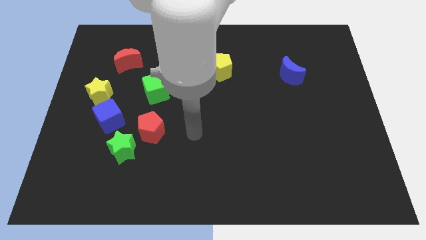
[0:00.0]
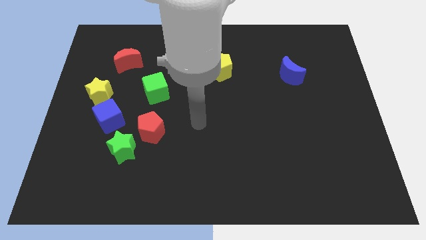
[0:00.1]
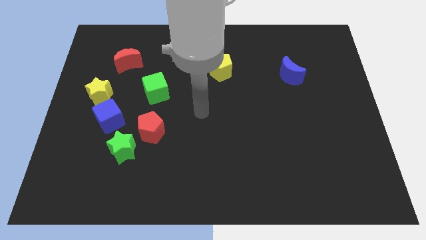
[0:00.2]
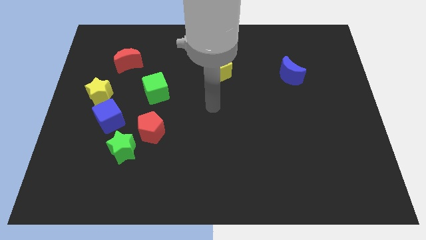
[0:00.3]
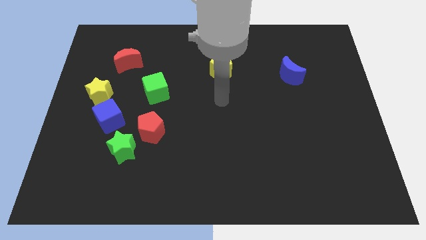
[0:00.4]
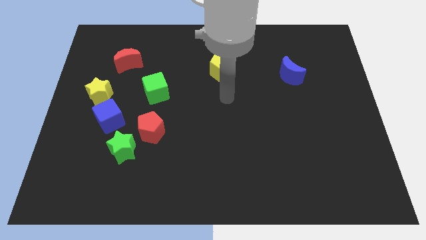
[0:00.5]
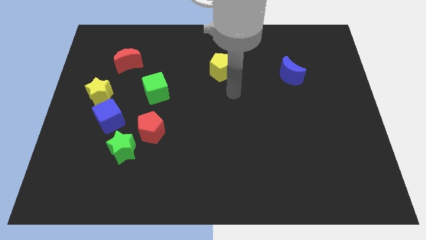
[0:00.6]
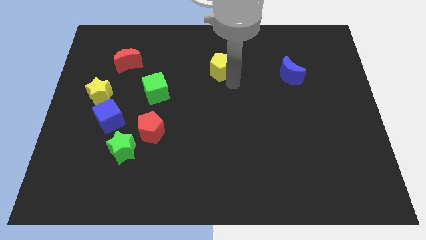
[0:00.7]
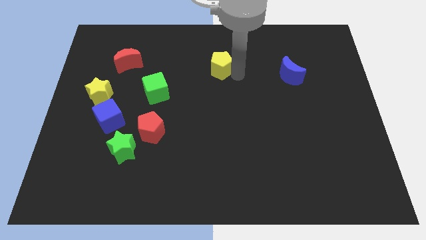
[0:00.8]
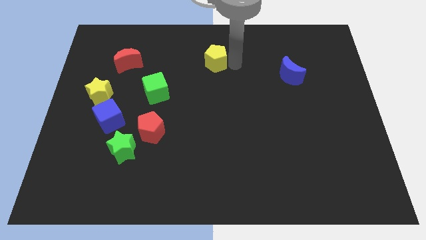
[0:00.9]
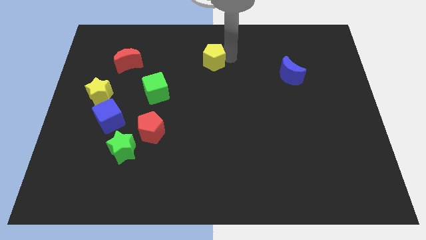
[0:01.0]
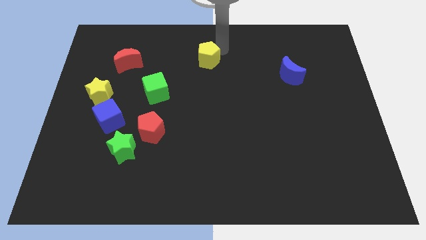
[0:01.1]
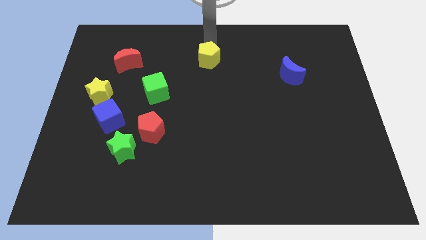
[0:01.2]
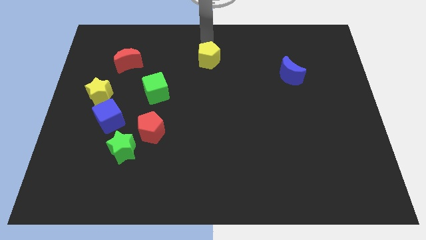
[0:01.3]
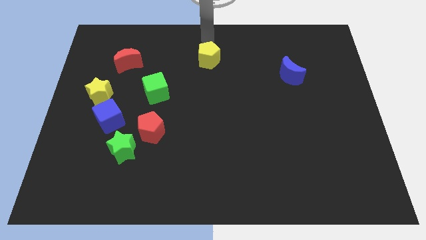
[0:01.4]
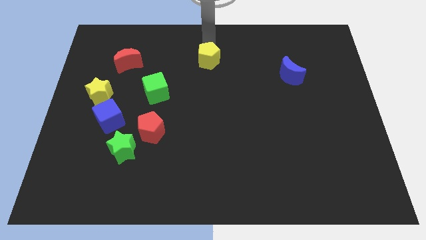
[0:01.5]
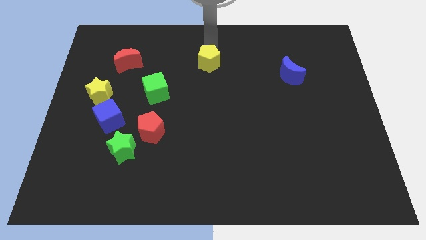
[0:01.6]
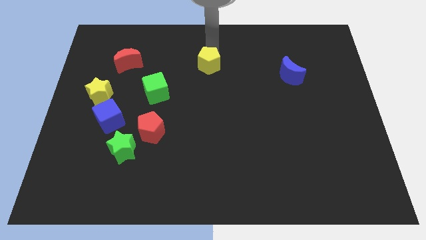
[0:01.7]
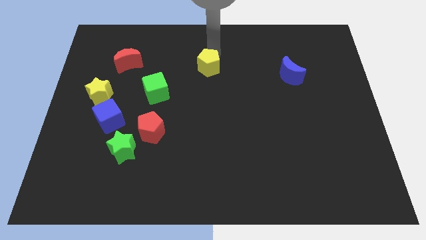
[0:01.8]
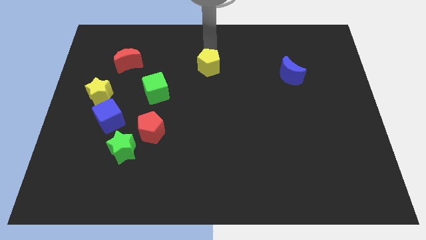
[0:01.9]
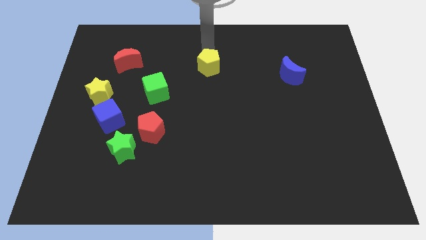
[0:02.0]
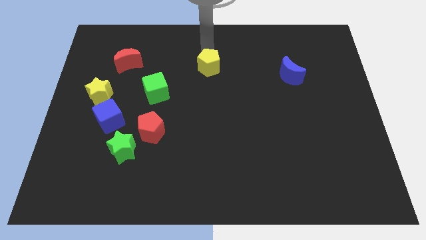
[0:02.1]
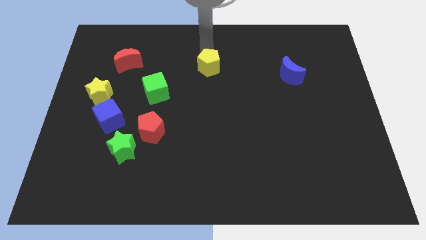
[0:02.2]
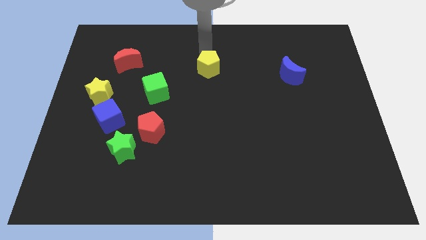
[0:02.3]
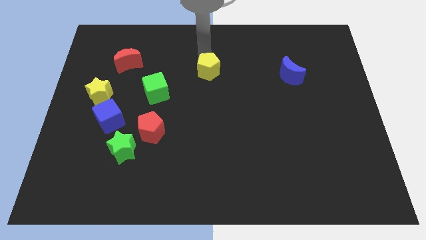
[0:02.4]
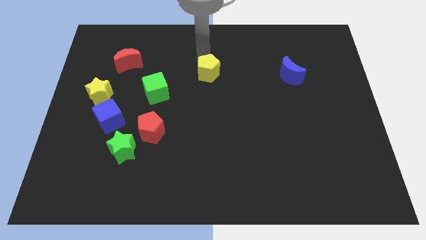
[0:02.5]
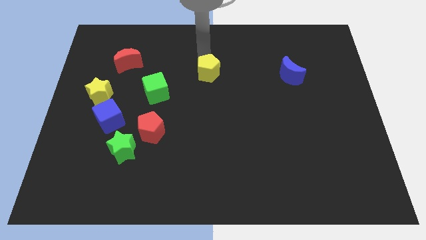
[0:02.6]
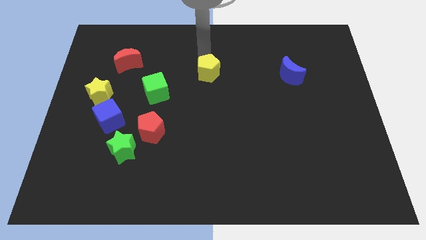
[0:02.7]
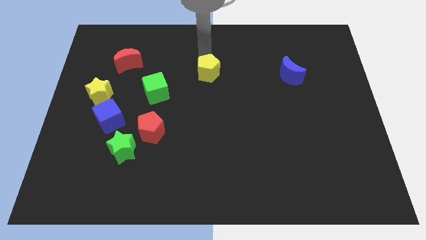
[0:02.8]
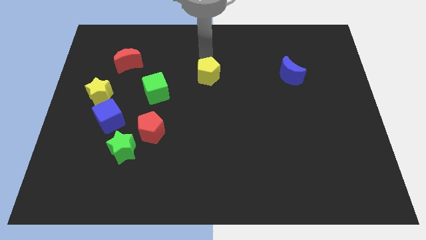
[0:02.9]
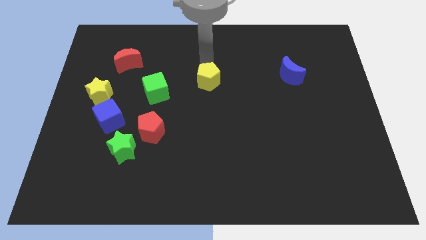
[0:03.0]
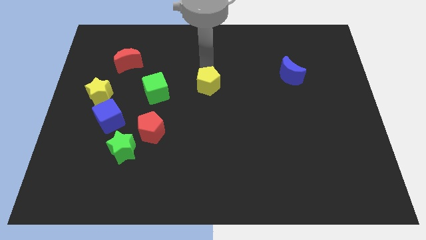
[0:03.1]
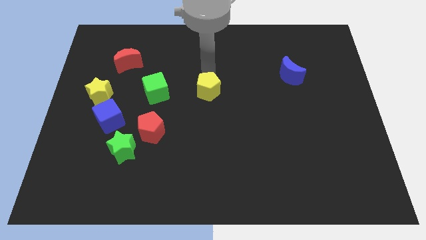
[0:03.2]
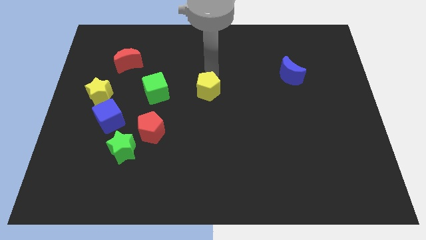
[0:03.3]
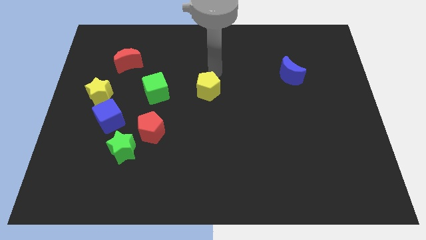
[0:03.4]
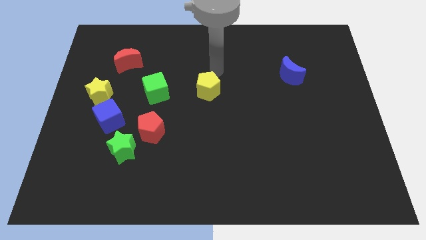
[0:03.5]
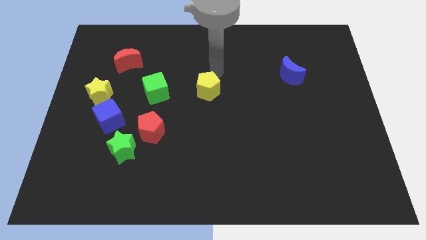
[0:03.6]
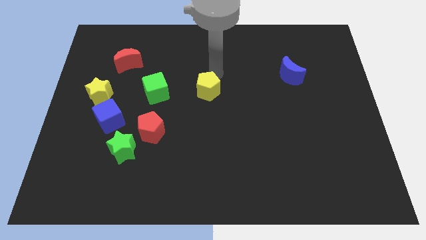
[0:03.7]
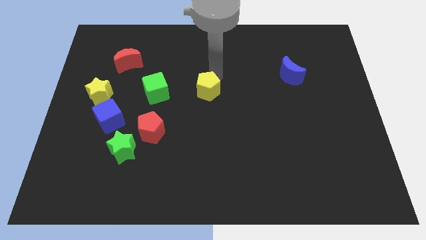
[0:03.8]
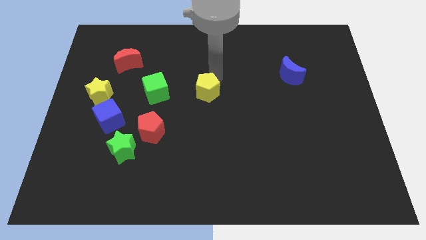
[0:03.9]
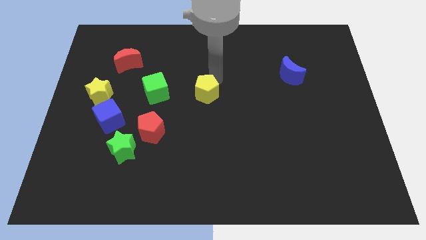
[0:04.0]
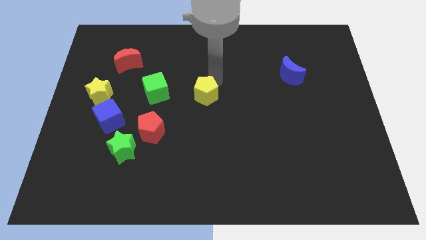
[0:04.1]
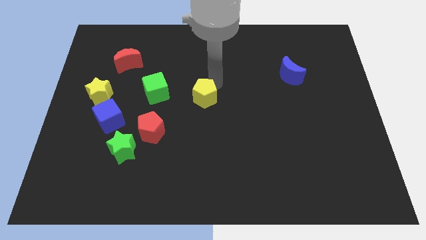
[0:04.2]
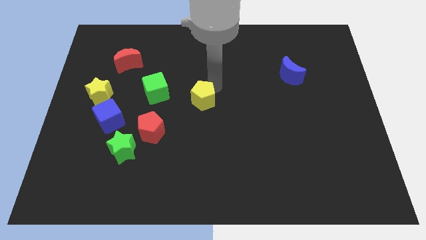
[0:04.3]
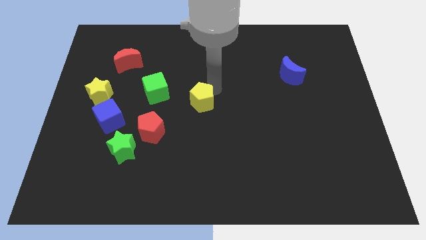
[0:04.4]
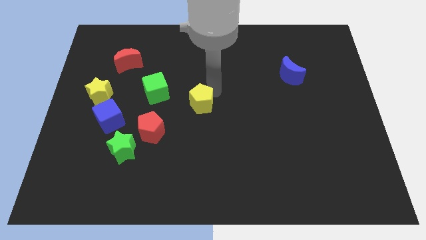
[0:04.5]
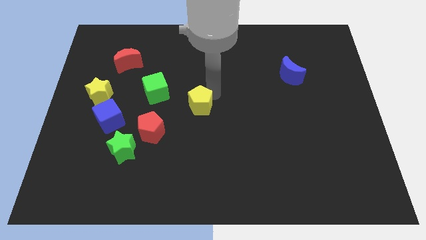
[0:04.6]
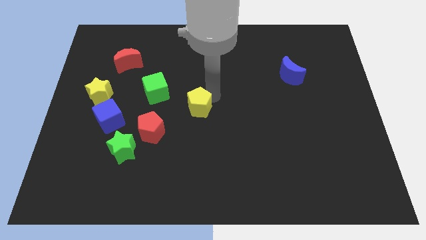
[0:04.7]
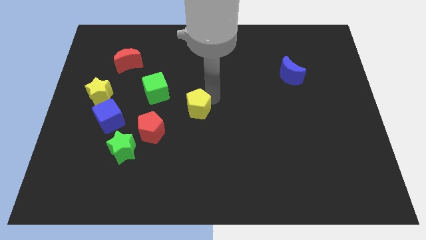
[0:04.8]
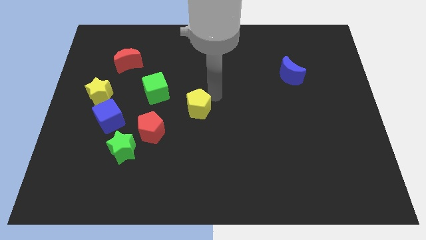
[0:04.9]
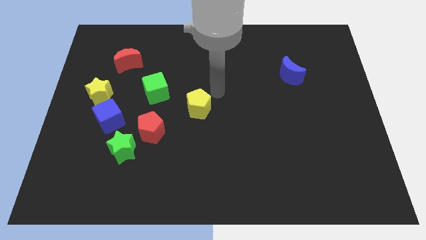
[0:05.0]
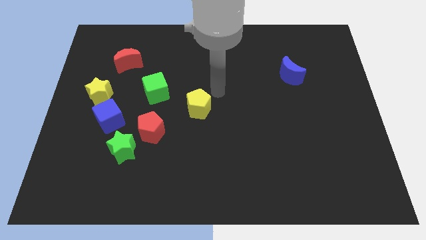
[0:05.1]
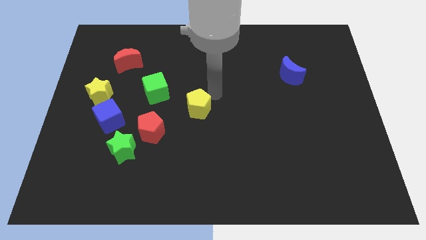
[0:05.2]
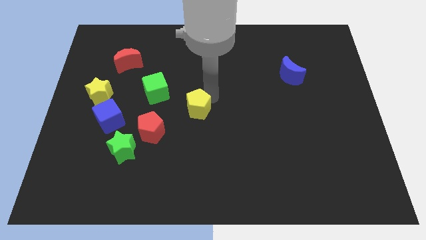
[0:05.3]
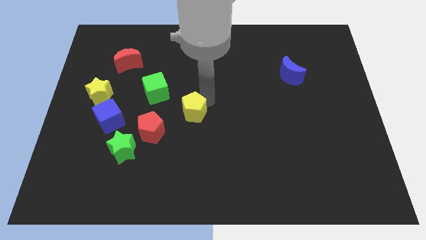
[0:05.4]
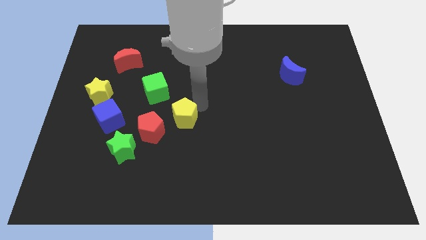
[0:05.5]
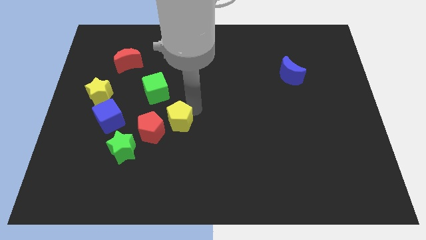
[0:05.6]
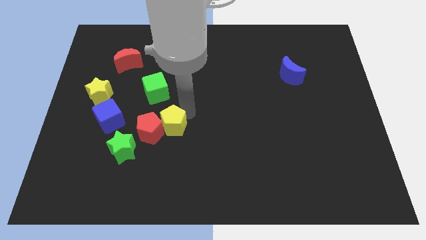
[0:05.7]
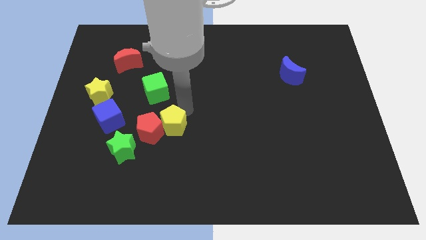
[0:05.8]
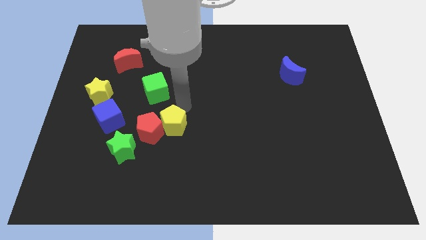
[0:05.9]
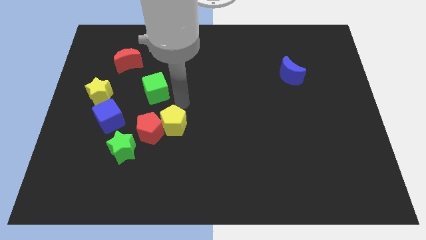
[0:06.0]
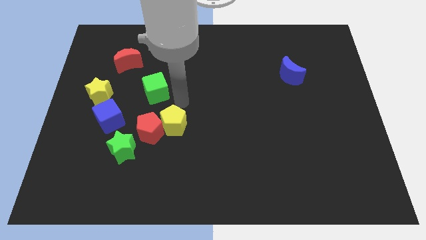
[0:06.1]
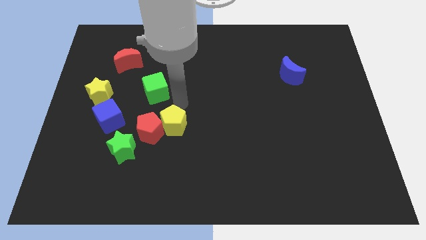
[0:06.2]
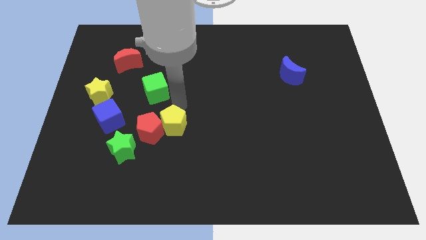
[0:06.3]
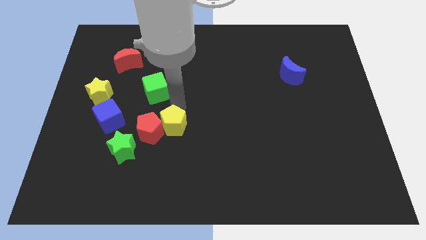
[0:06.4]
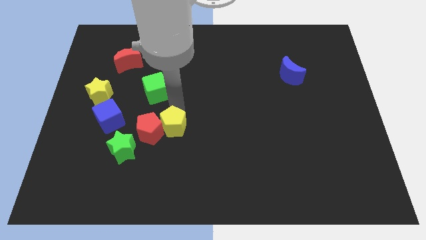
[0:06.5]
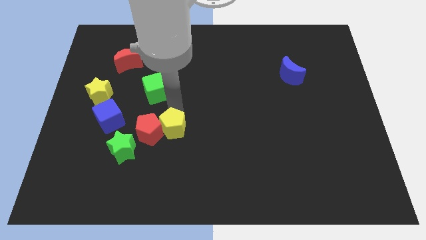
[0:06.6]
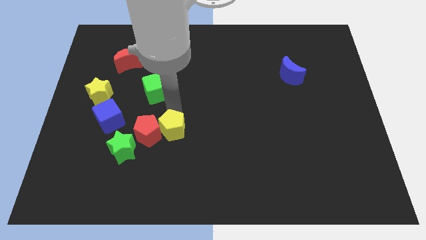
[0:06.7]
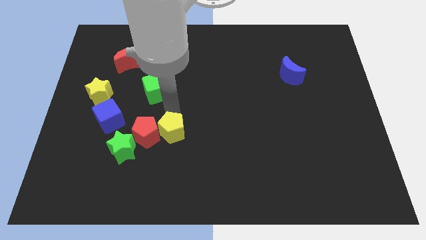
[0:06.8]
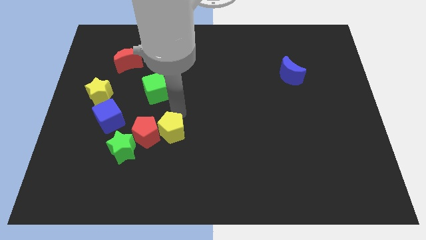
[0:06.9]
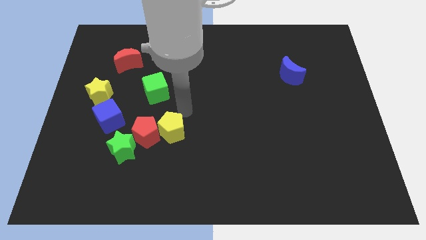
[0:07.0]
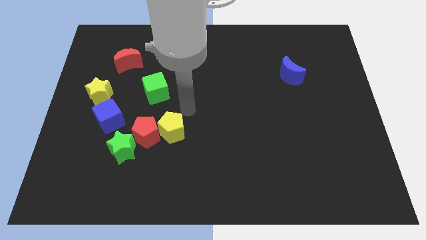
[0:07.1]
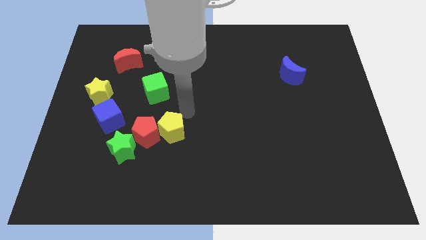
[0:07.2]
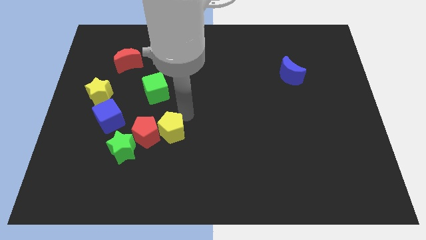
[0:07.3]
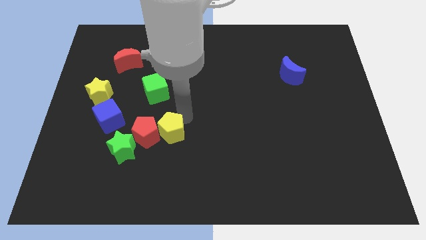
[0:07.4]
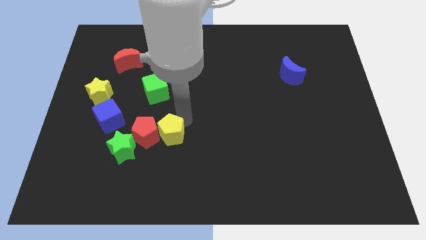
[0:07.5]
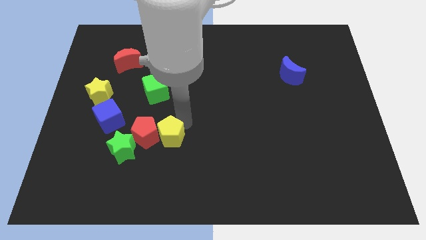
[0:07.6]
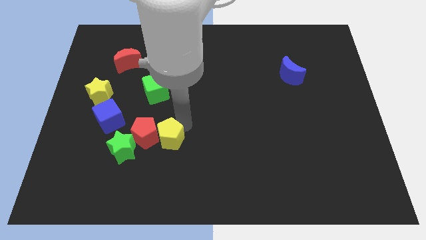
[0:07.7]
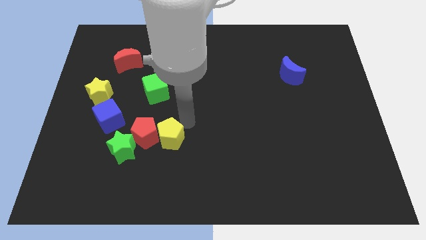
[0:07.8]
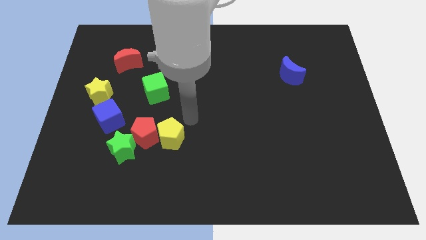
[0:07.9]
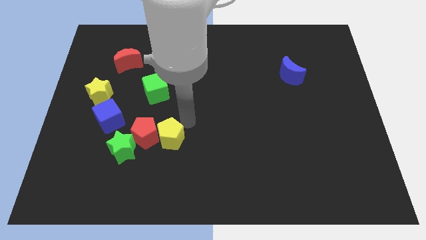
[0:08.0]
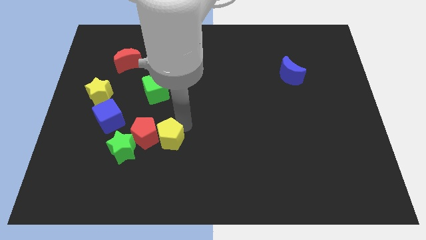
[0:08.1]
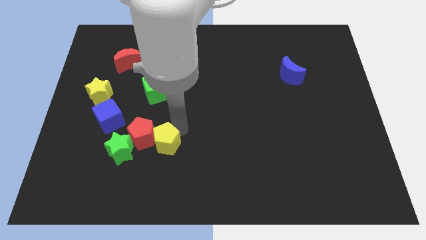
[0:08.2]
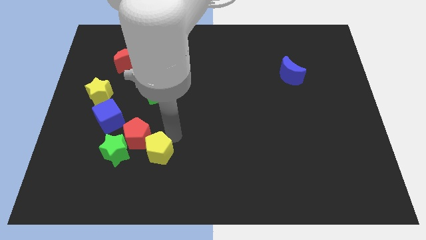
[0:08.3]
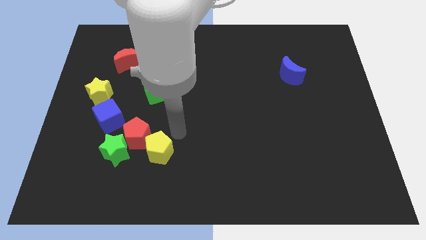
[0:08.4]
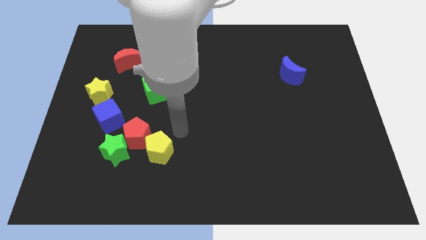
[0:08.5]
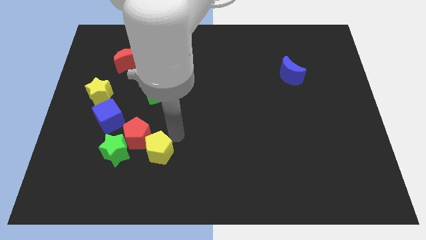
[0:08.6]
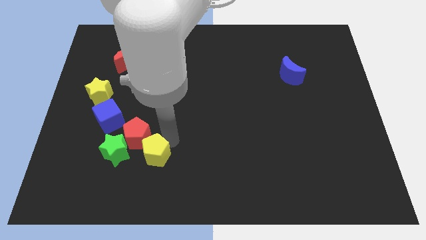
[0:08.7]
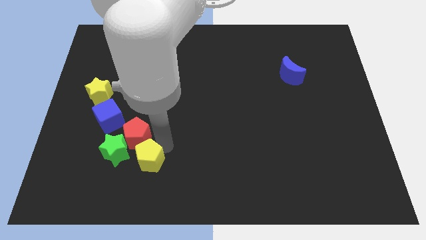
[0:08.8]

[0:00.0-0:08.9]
push the yellow pentagon to the bottom right side of the green star
